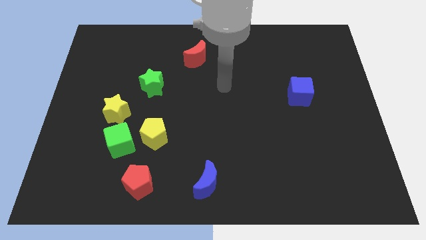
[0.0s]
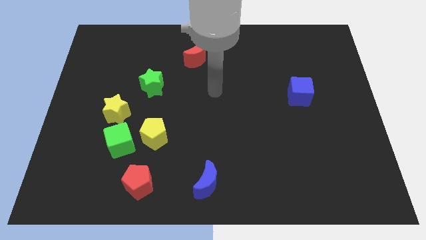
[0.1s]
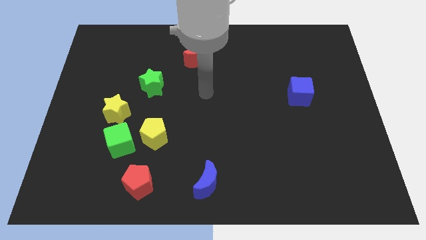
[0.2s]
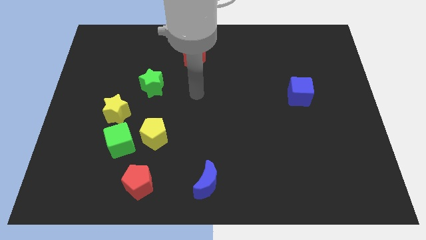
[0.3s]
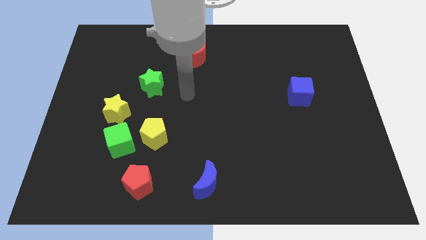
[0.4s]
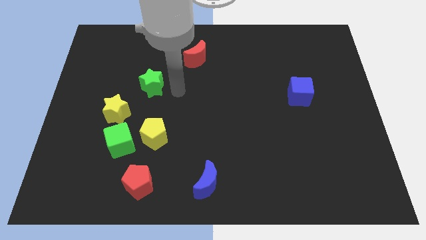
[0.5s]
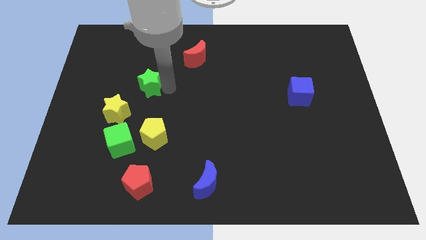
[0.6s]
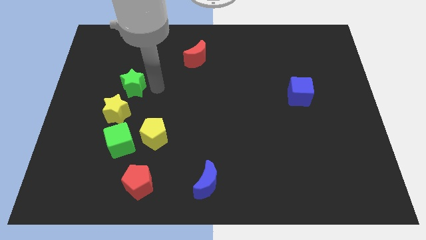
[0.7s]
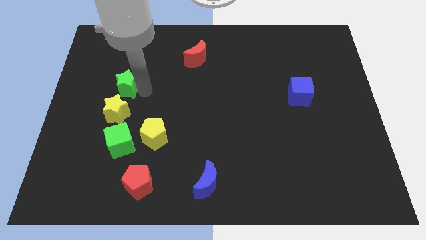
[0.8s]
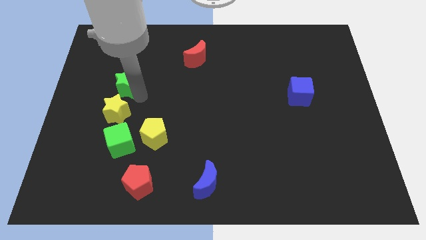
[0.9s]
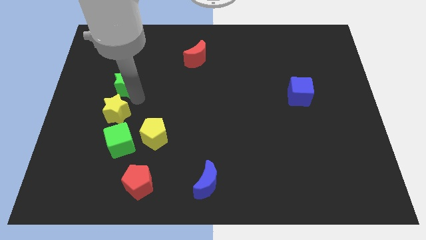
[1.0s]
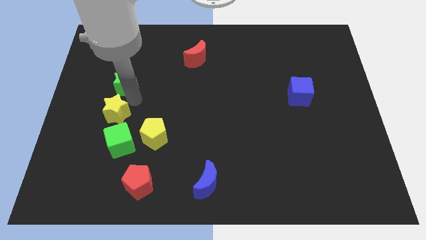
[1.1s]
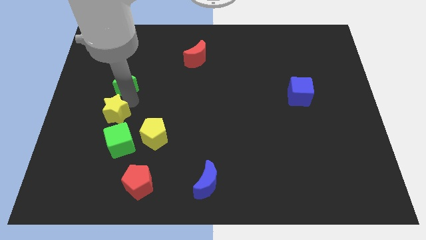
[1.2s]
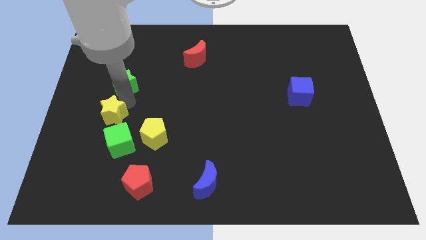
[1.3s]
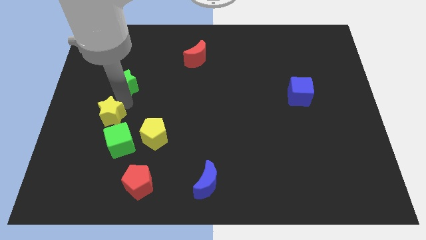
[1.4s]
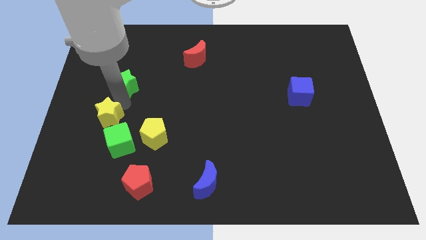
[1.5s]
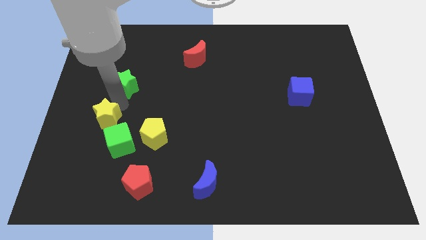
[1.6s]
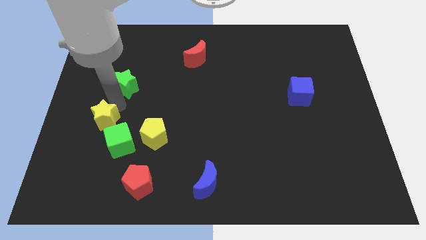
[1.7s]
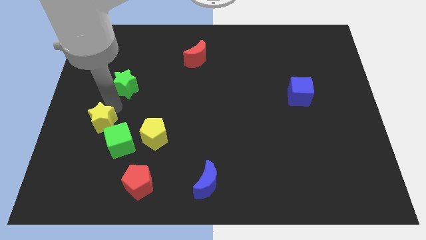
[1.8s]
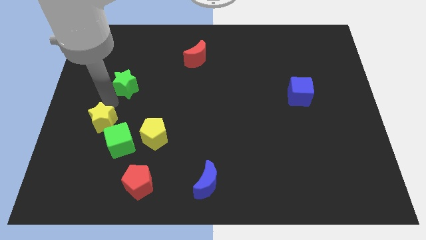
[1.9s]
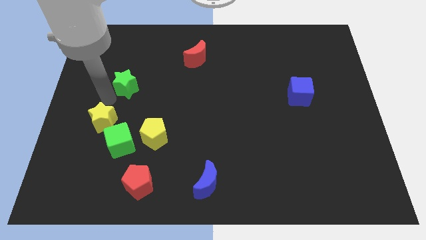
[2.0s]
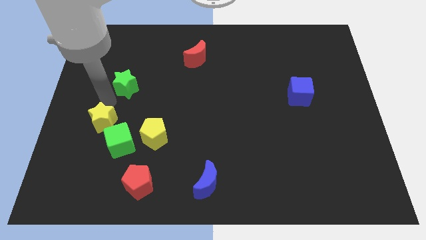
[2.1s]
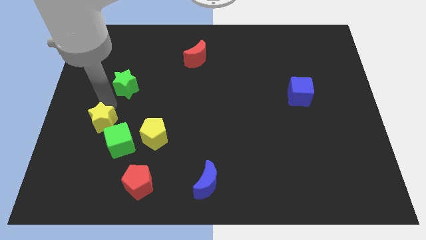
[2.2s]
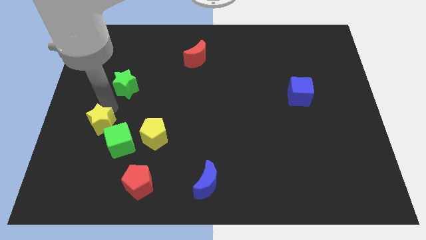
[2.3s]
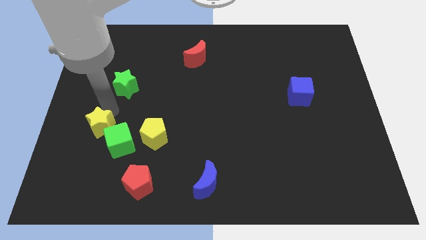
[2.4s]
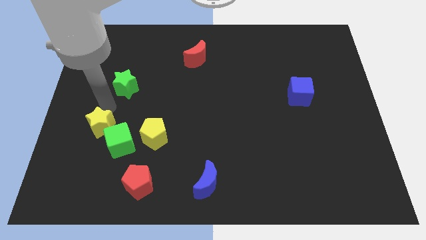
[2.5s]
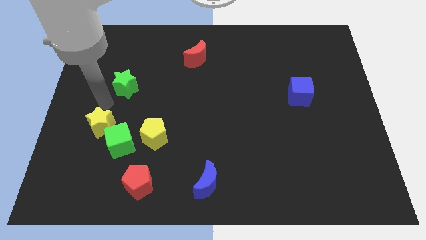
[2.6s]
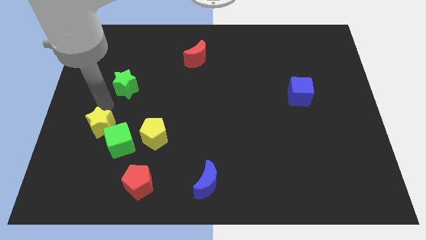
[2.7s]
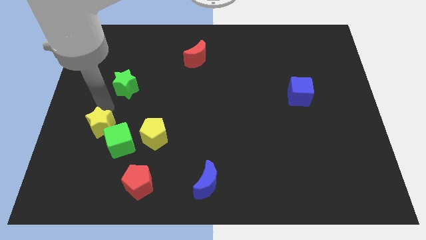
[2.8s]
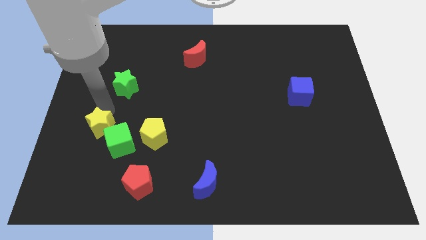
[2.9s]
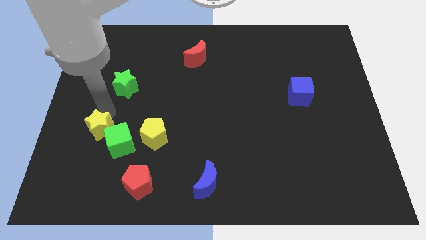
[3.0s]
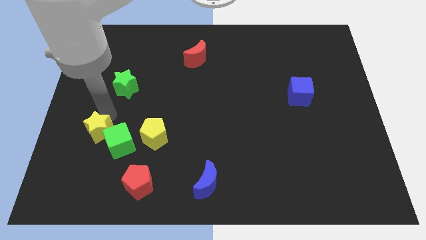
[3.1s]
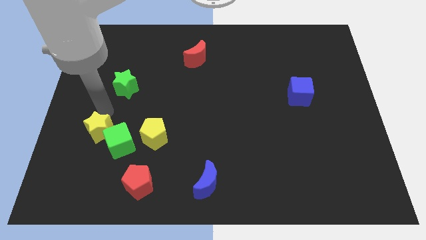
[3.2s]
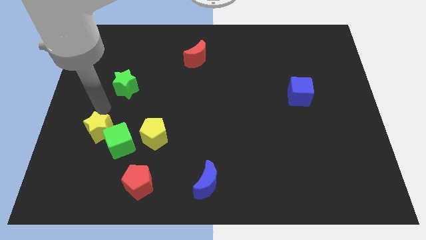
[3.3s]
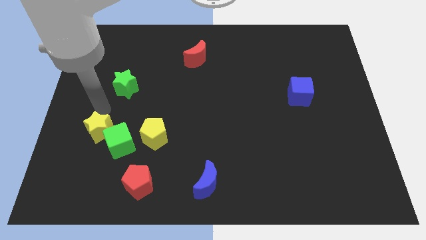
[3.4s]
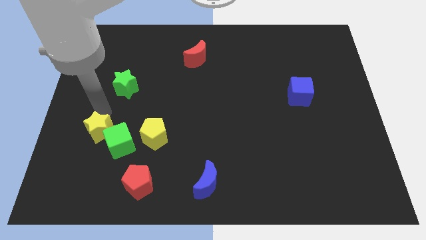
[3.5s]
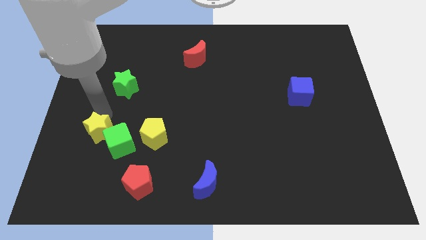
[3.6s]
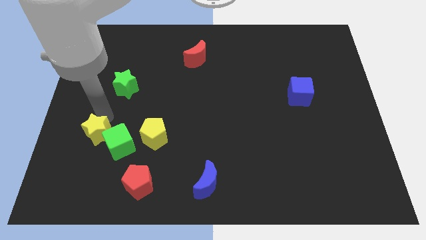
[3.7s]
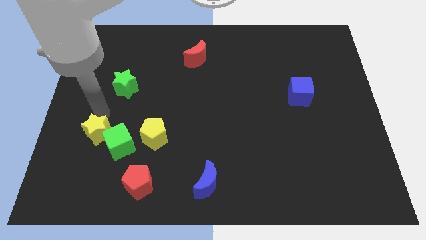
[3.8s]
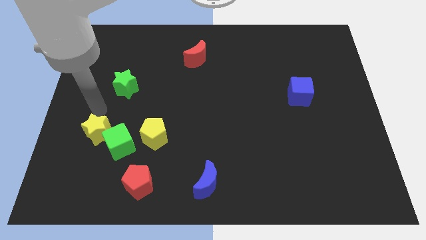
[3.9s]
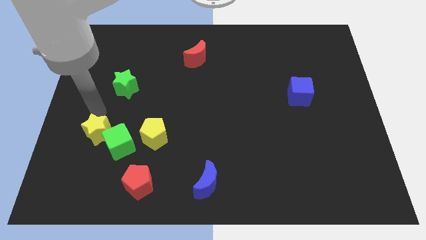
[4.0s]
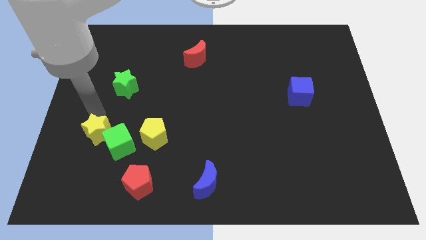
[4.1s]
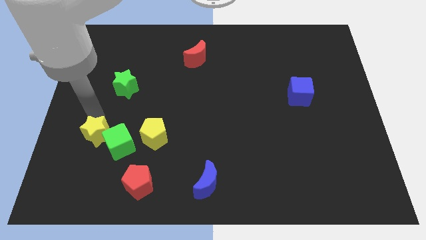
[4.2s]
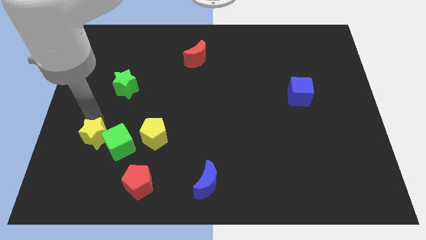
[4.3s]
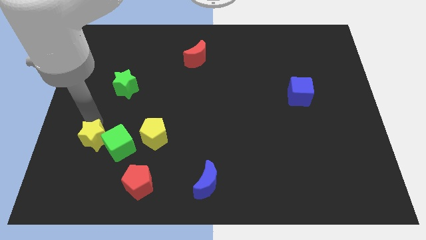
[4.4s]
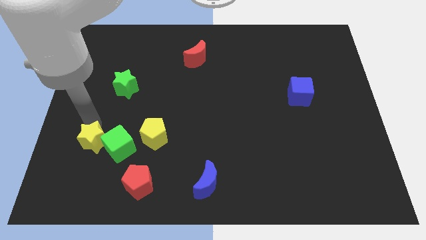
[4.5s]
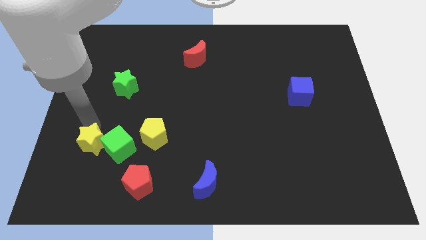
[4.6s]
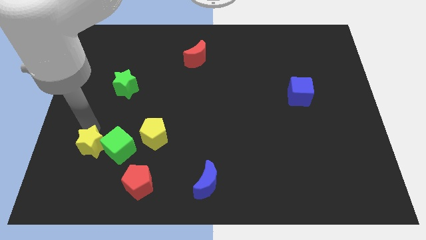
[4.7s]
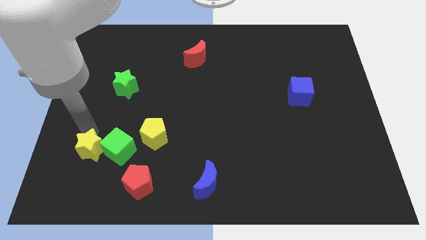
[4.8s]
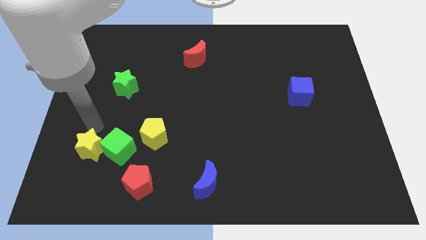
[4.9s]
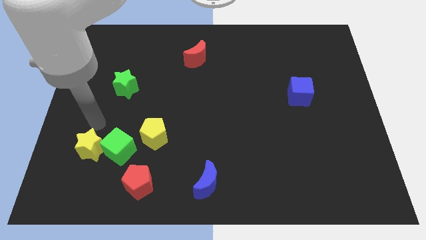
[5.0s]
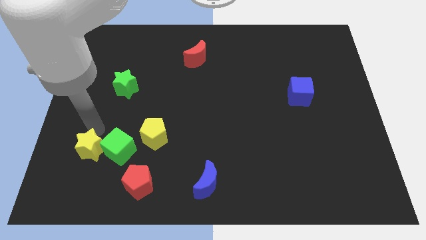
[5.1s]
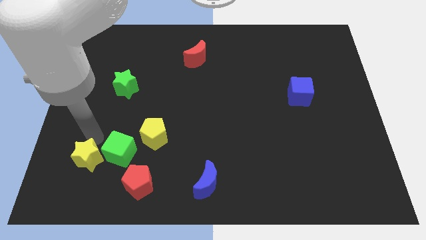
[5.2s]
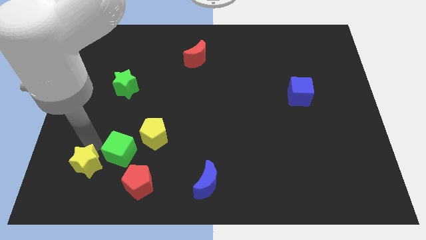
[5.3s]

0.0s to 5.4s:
push the yellow star left of the red pentagon

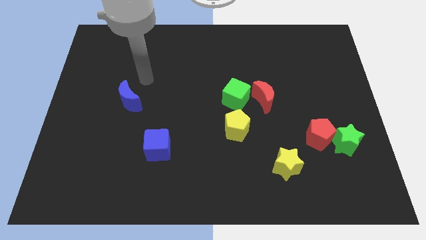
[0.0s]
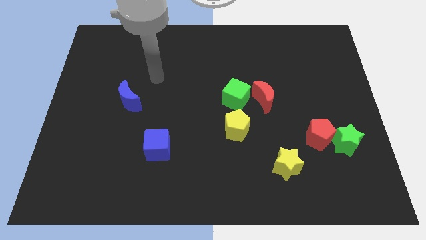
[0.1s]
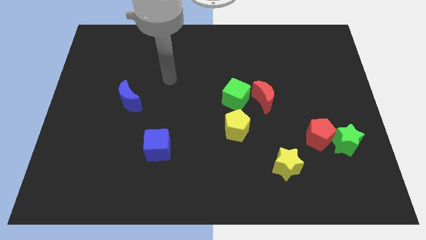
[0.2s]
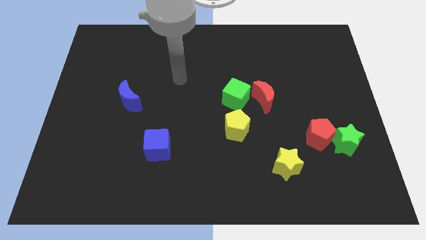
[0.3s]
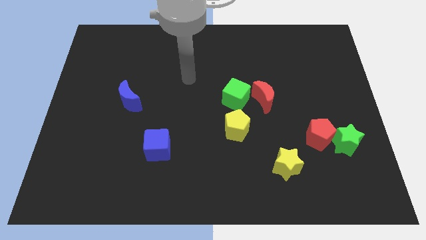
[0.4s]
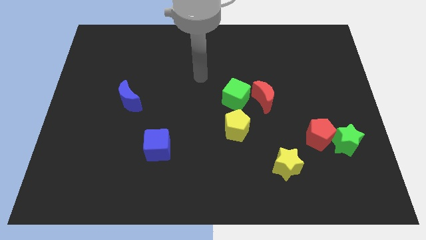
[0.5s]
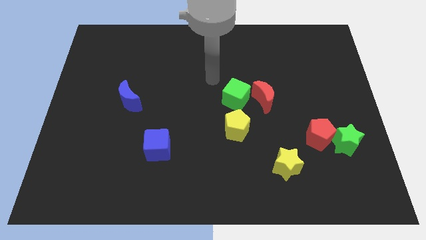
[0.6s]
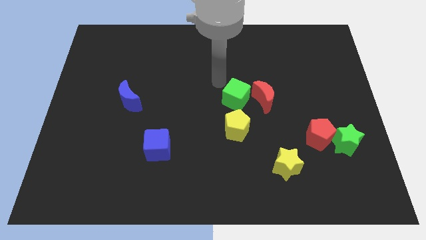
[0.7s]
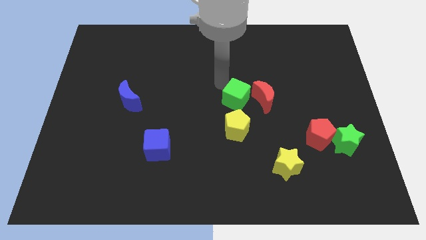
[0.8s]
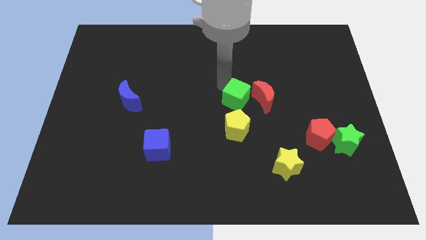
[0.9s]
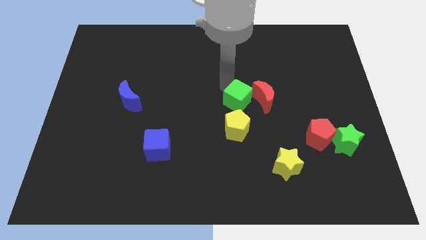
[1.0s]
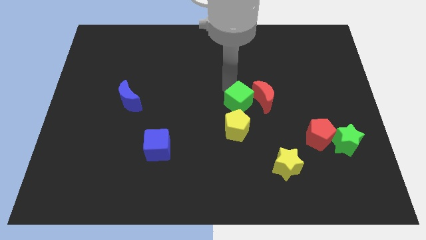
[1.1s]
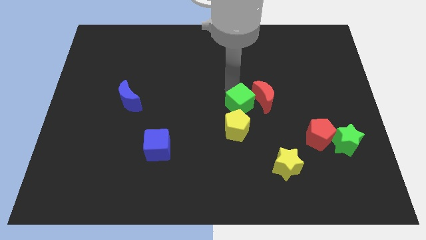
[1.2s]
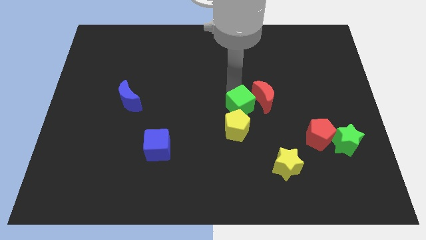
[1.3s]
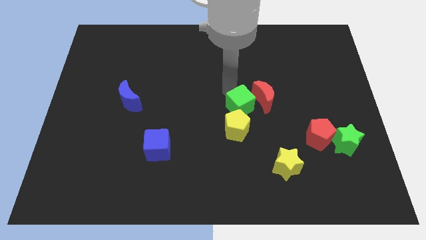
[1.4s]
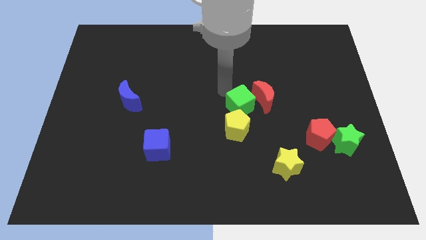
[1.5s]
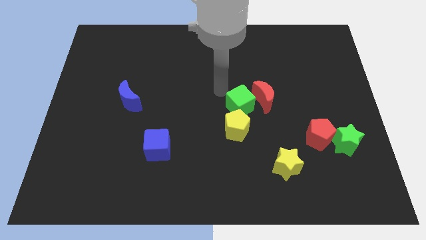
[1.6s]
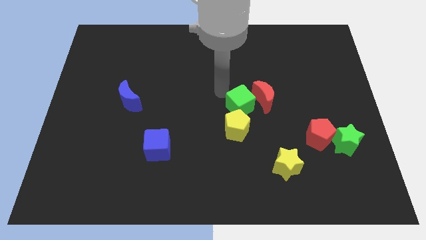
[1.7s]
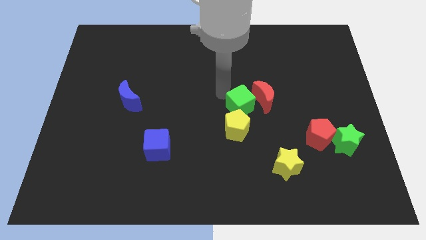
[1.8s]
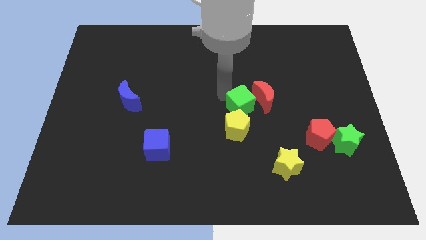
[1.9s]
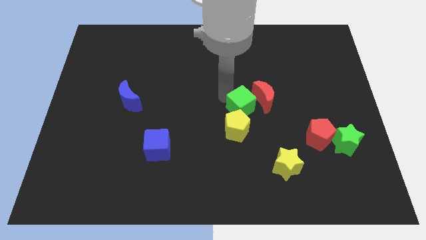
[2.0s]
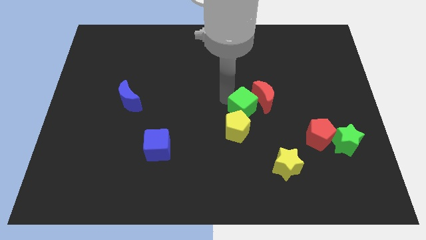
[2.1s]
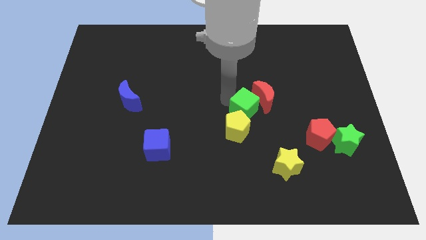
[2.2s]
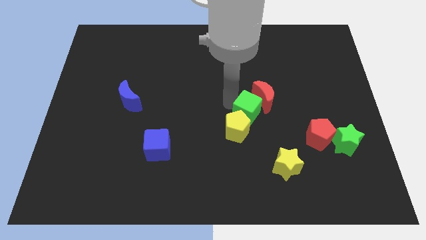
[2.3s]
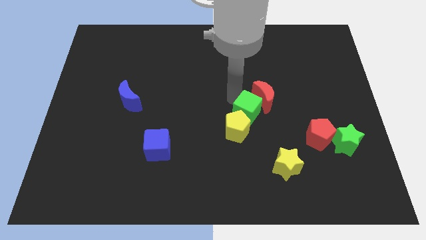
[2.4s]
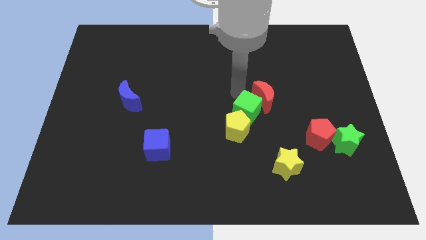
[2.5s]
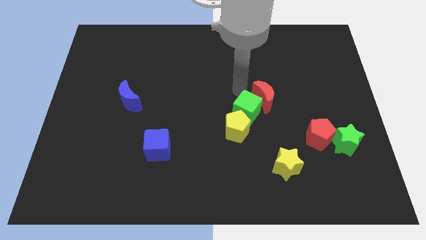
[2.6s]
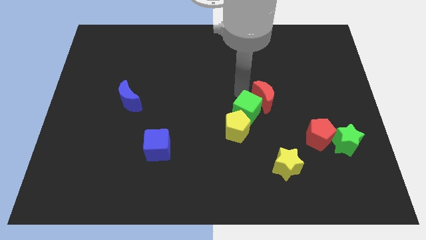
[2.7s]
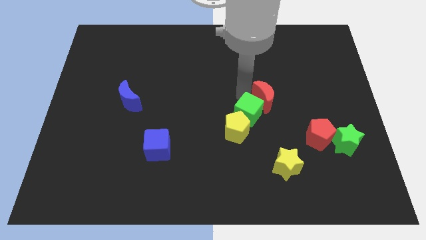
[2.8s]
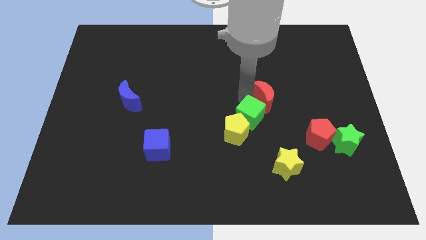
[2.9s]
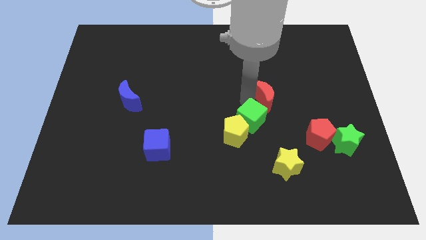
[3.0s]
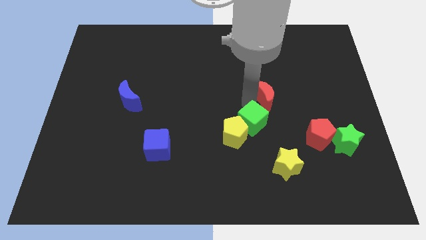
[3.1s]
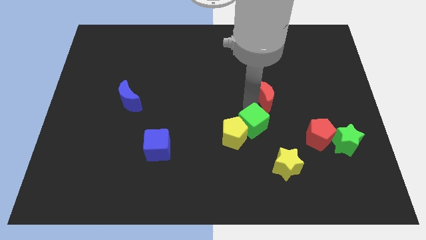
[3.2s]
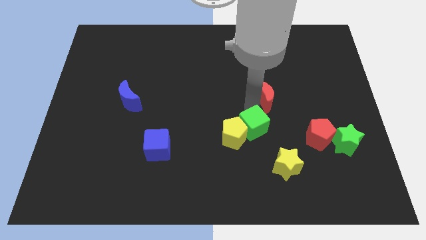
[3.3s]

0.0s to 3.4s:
move the green cube to the top left side of the yellow star
